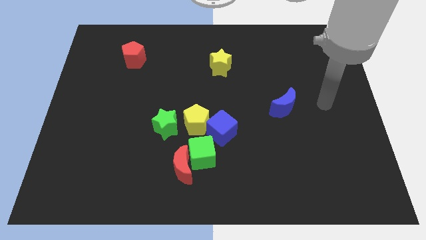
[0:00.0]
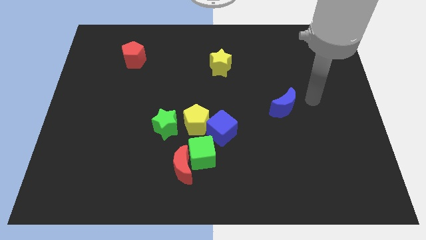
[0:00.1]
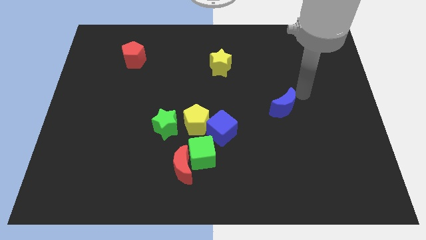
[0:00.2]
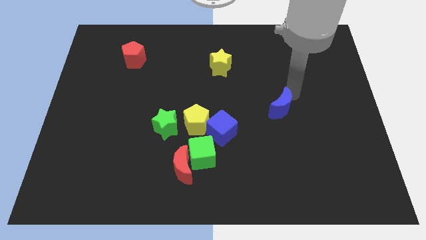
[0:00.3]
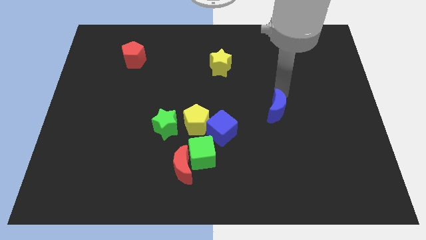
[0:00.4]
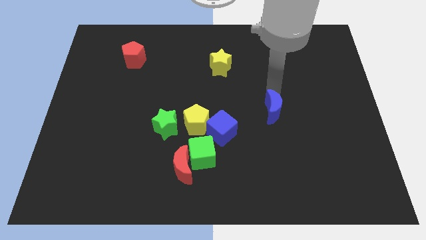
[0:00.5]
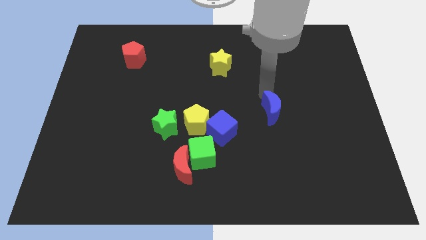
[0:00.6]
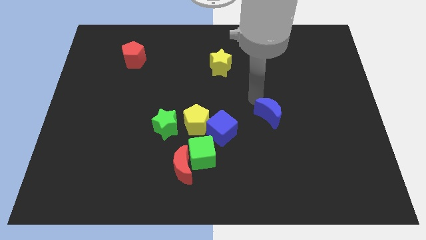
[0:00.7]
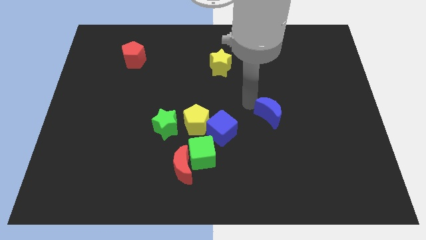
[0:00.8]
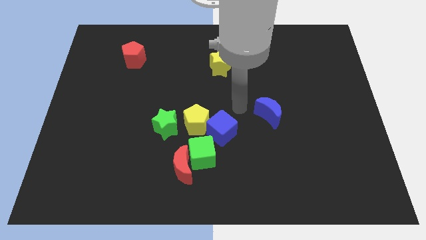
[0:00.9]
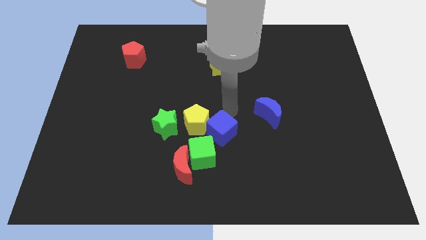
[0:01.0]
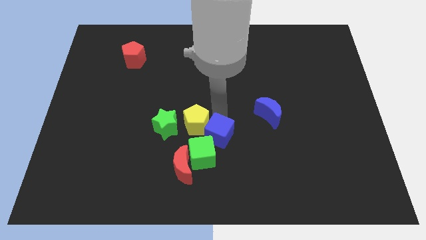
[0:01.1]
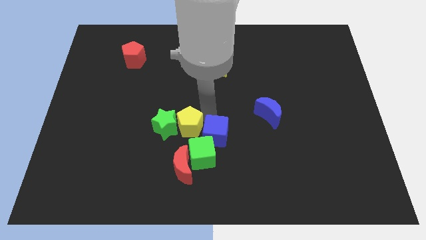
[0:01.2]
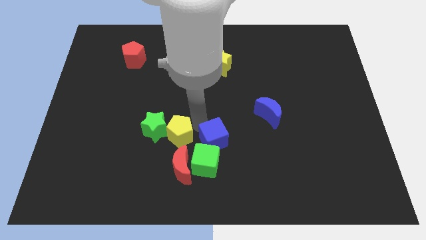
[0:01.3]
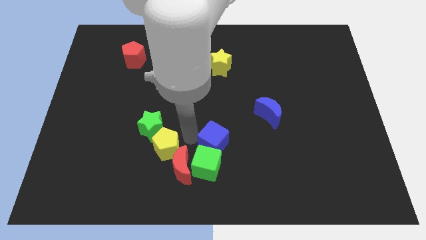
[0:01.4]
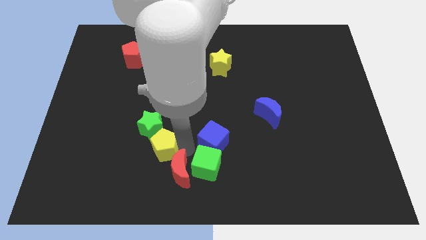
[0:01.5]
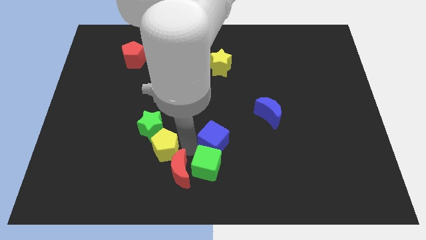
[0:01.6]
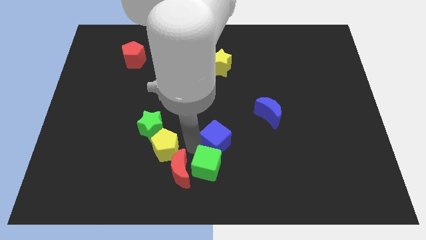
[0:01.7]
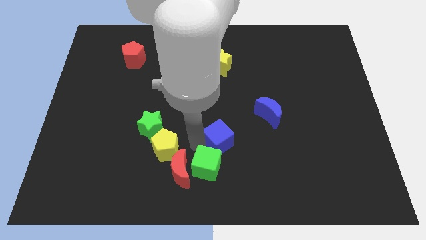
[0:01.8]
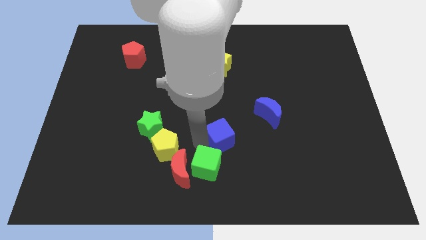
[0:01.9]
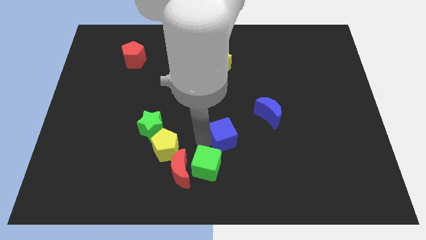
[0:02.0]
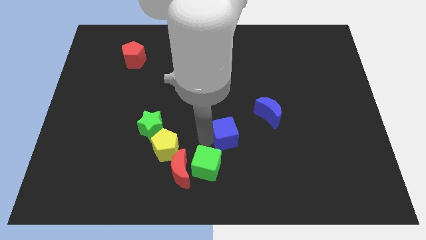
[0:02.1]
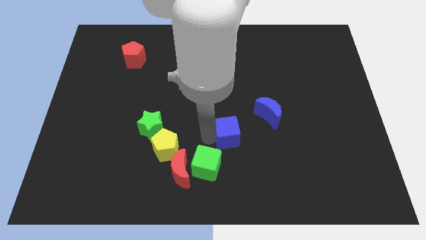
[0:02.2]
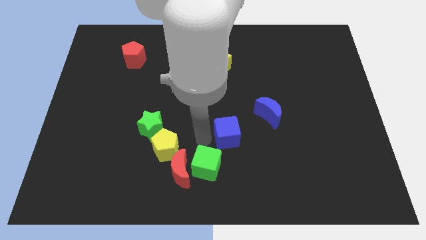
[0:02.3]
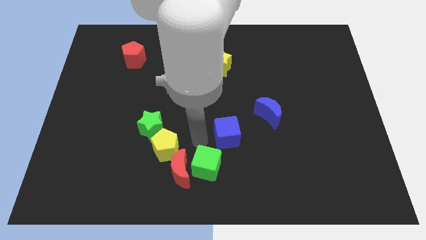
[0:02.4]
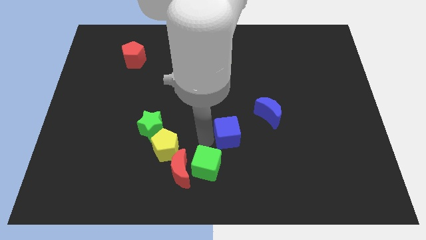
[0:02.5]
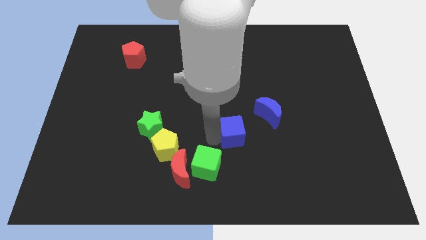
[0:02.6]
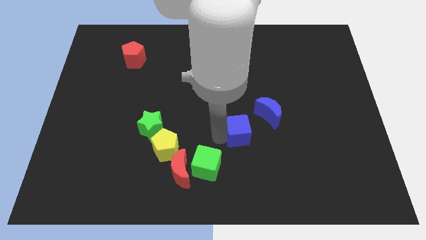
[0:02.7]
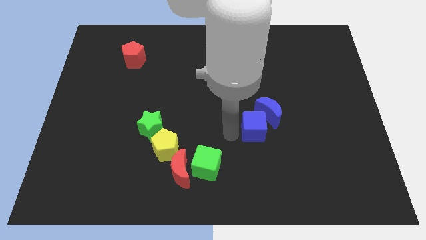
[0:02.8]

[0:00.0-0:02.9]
move the blue cube a little to the right

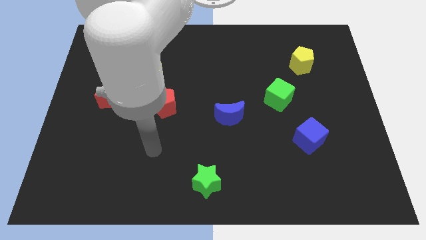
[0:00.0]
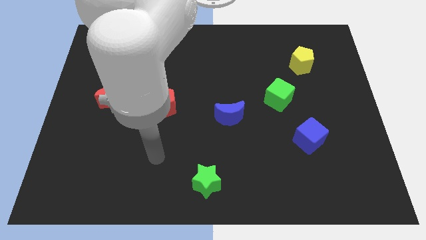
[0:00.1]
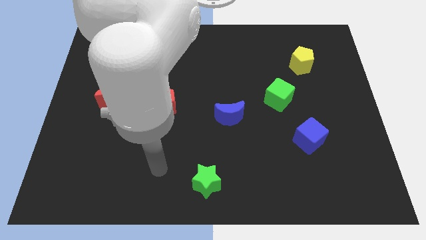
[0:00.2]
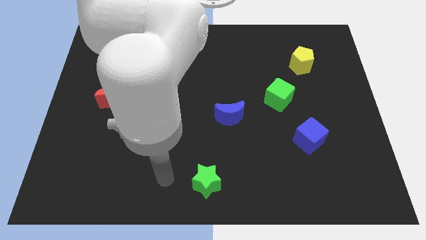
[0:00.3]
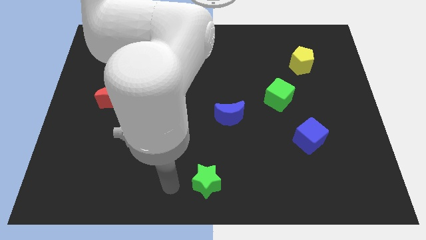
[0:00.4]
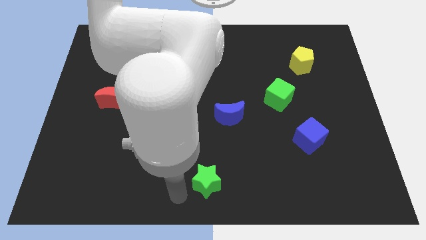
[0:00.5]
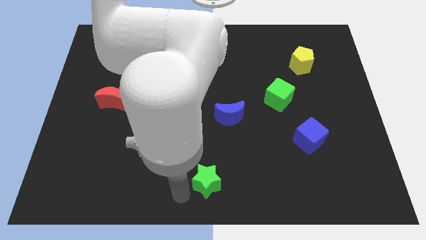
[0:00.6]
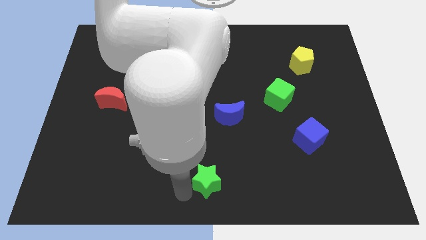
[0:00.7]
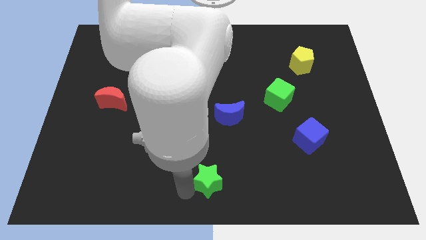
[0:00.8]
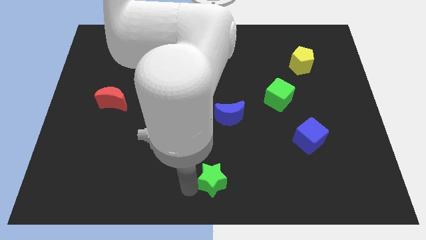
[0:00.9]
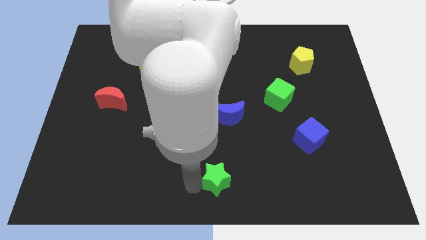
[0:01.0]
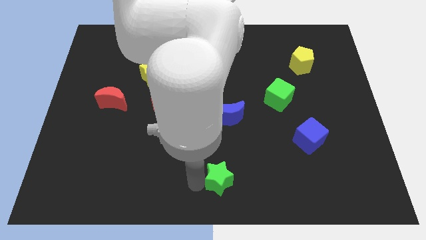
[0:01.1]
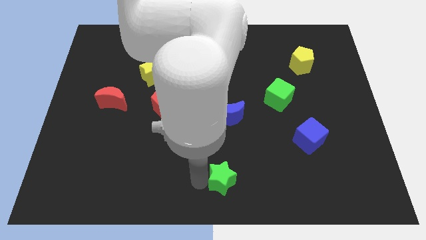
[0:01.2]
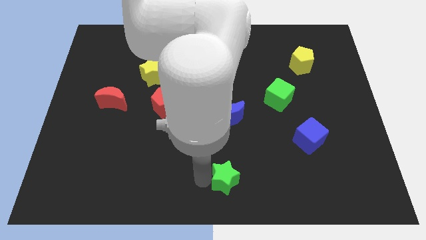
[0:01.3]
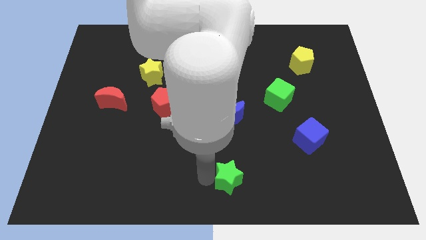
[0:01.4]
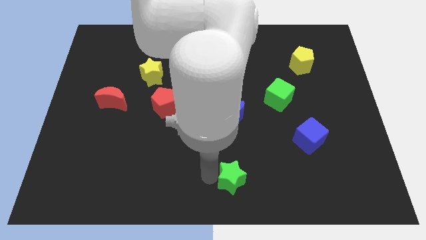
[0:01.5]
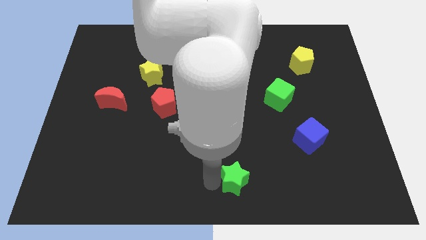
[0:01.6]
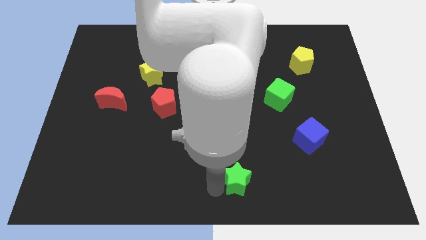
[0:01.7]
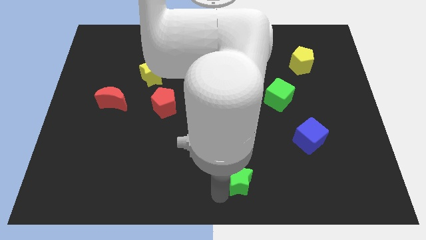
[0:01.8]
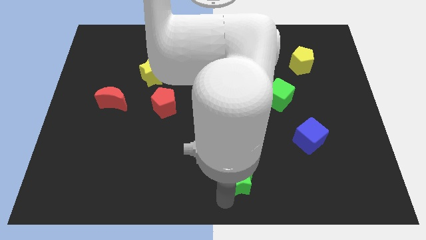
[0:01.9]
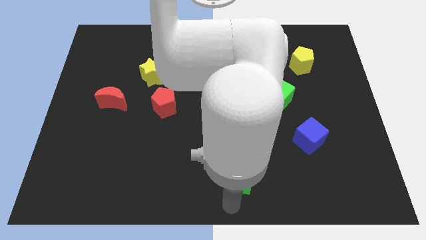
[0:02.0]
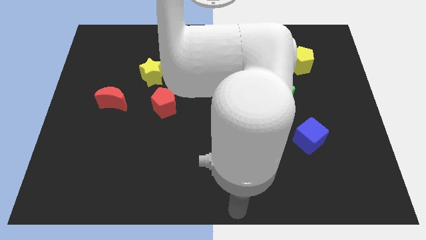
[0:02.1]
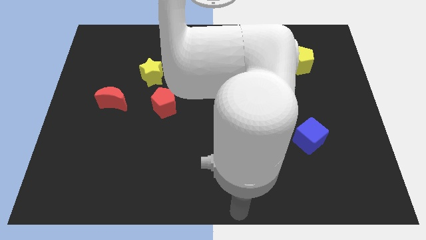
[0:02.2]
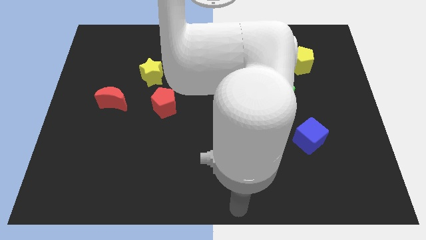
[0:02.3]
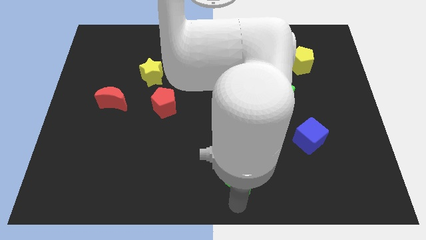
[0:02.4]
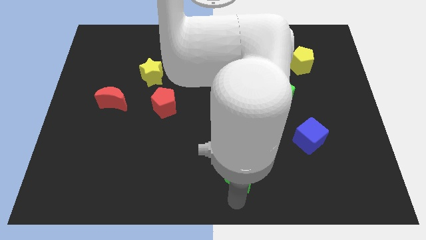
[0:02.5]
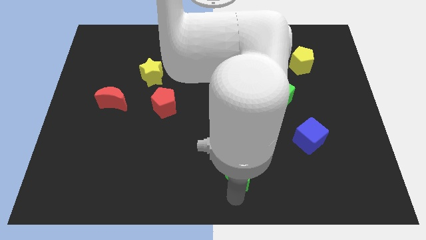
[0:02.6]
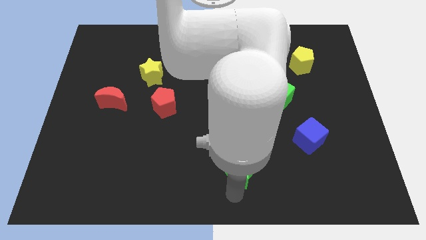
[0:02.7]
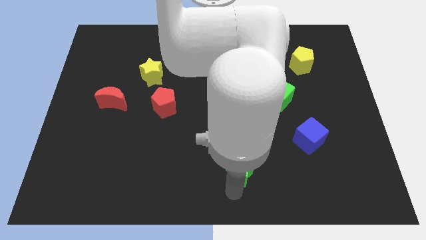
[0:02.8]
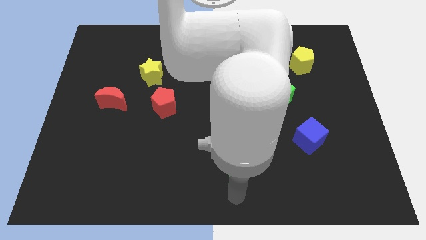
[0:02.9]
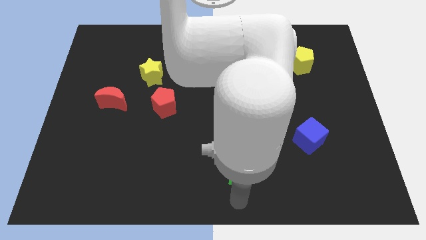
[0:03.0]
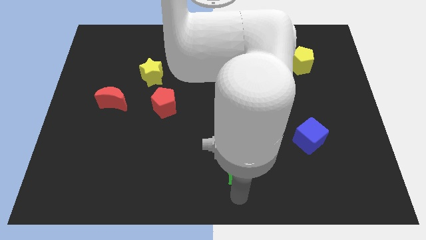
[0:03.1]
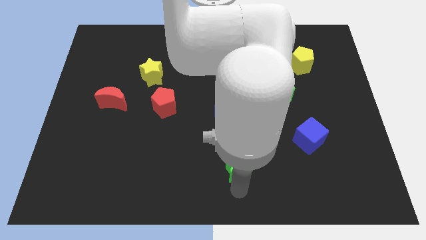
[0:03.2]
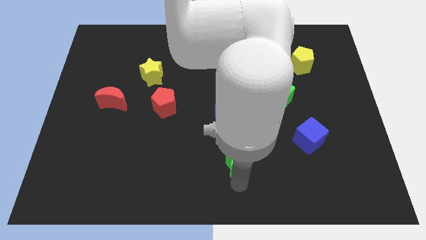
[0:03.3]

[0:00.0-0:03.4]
slide the green star somewhat diagonally upwards and right

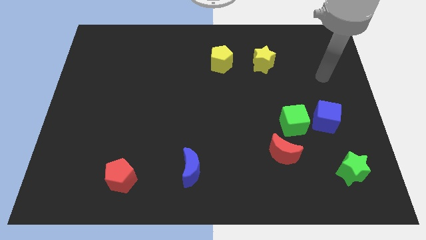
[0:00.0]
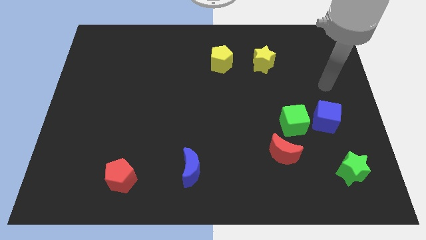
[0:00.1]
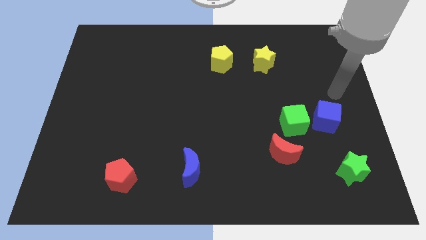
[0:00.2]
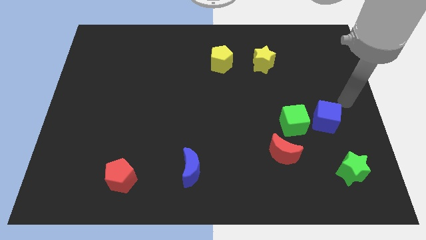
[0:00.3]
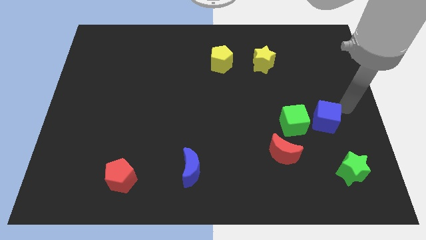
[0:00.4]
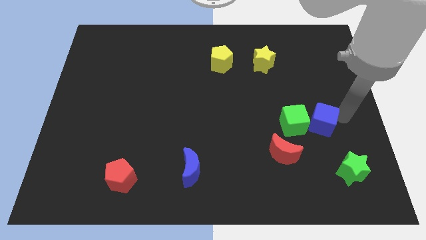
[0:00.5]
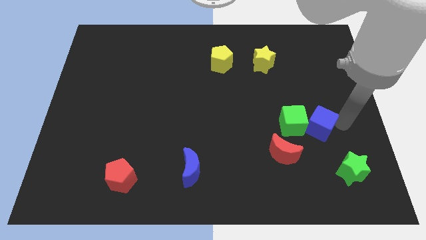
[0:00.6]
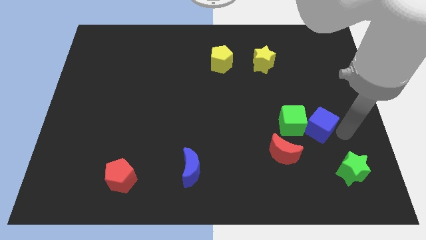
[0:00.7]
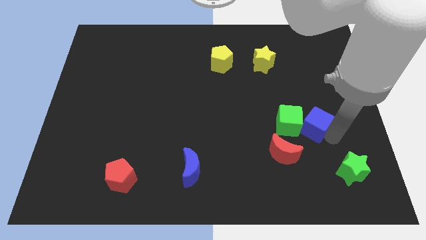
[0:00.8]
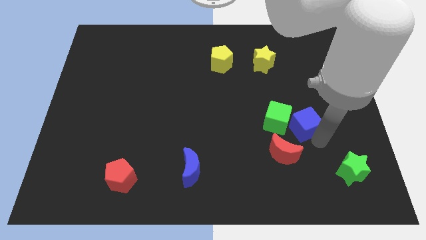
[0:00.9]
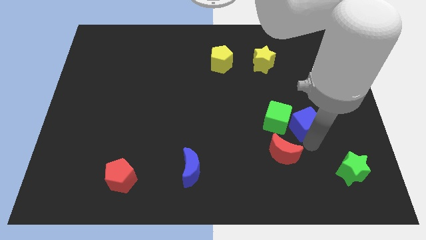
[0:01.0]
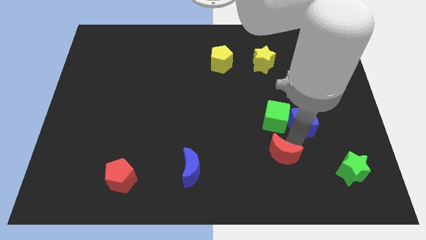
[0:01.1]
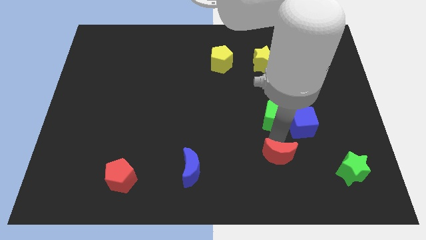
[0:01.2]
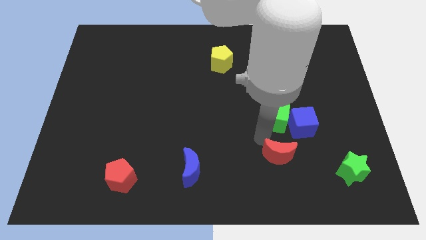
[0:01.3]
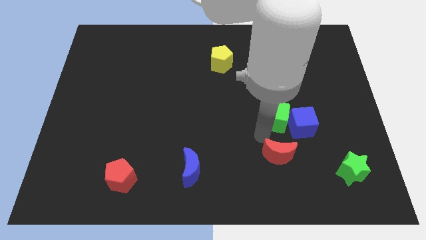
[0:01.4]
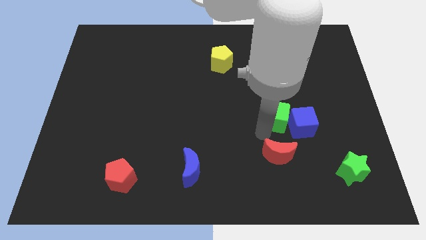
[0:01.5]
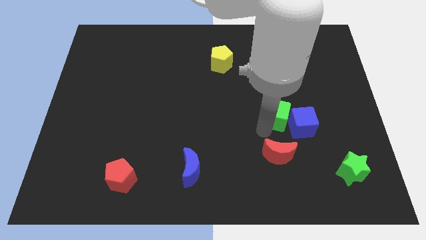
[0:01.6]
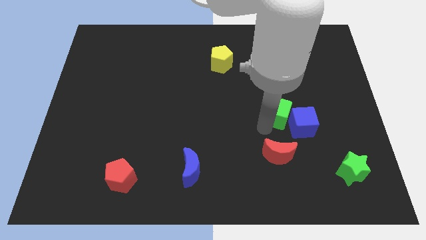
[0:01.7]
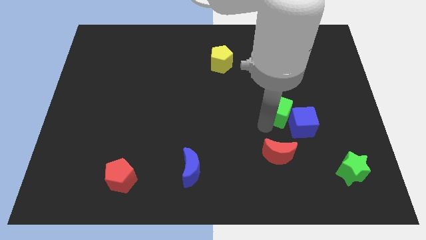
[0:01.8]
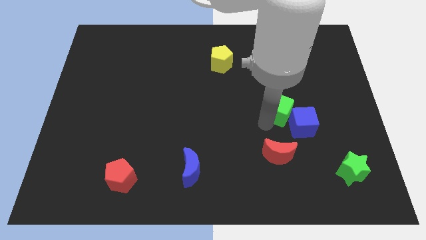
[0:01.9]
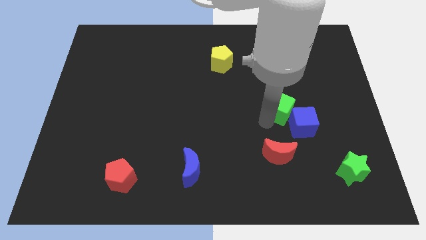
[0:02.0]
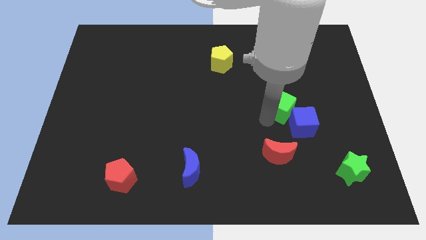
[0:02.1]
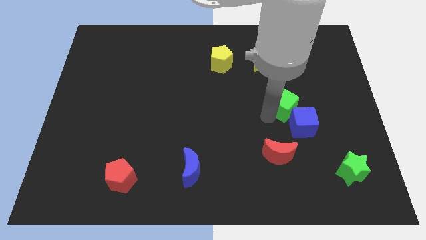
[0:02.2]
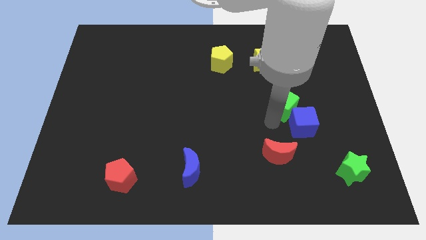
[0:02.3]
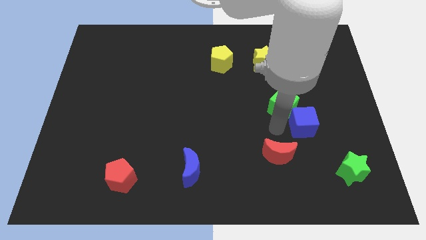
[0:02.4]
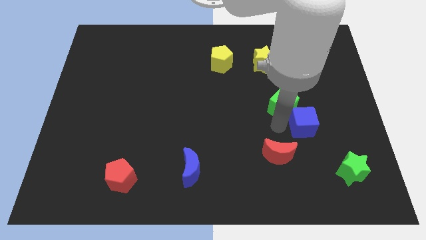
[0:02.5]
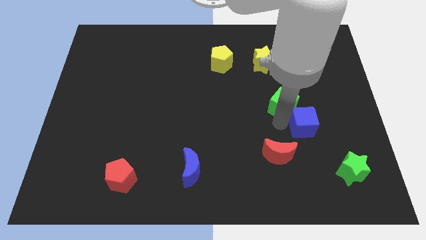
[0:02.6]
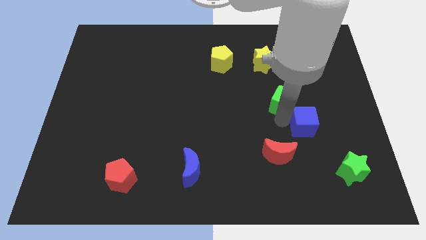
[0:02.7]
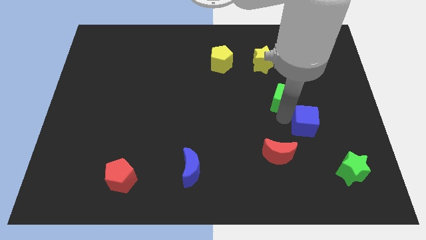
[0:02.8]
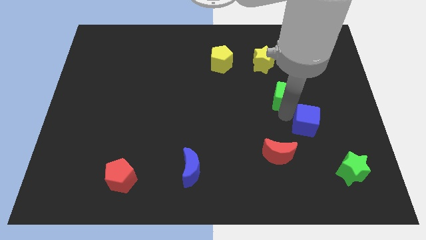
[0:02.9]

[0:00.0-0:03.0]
slightly move the green cube up
